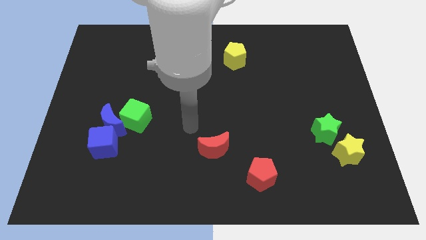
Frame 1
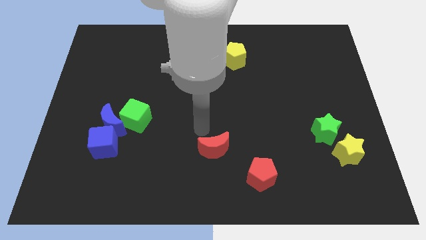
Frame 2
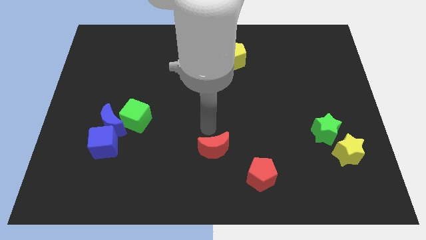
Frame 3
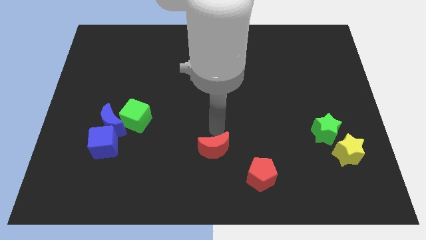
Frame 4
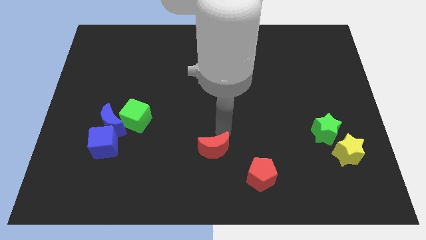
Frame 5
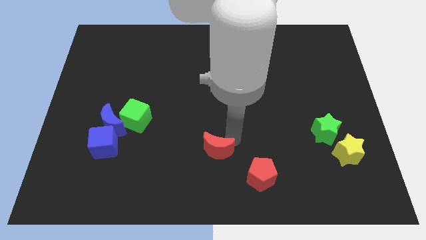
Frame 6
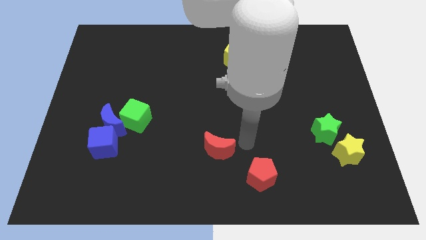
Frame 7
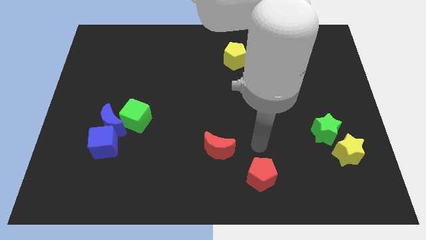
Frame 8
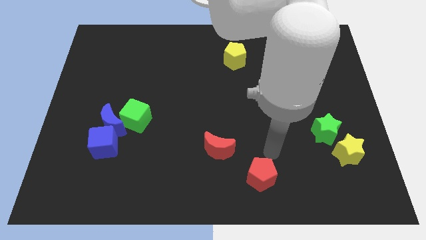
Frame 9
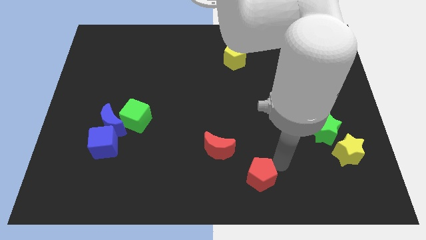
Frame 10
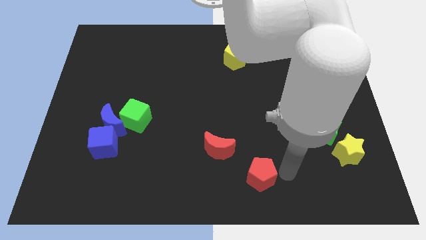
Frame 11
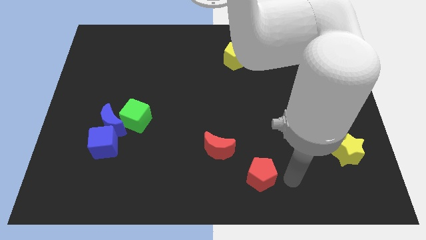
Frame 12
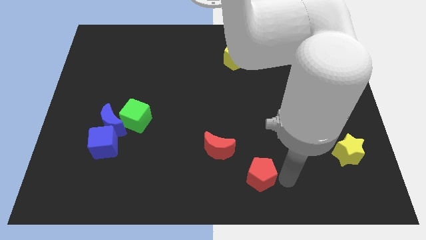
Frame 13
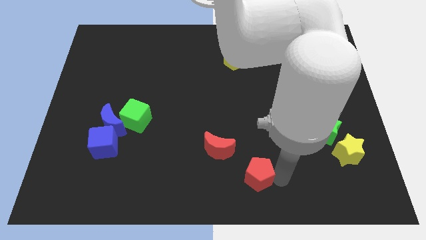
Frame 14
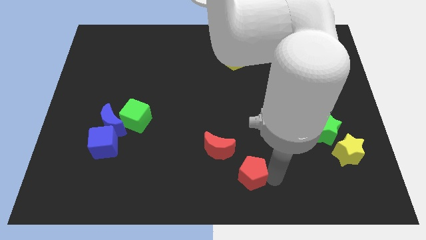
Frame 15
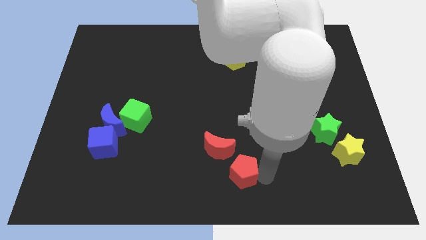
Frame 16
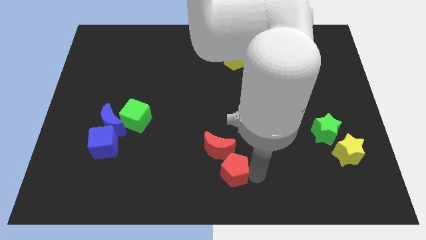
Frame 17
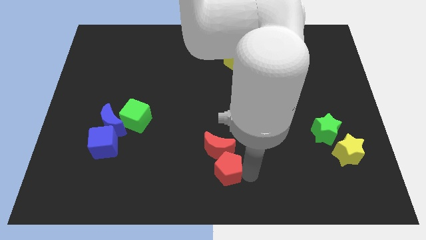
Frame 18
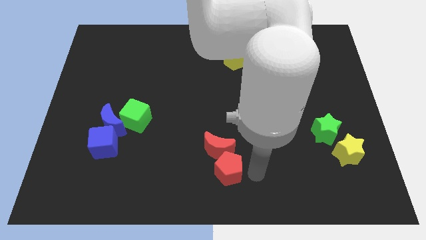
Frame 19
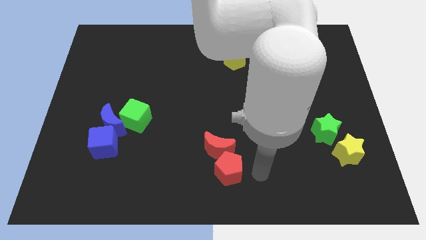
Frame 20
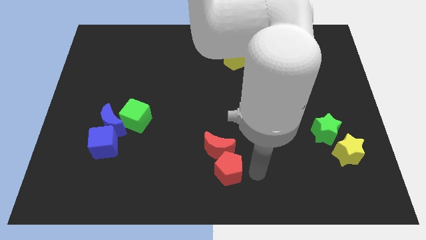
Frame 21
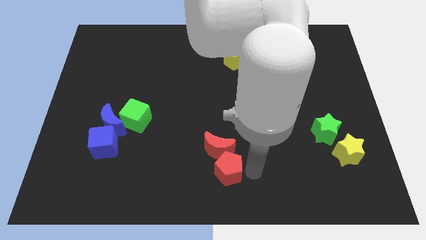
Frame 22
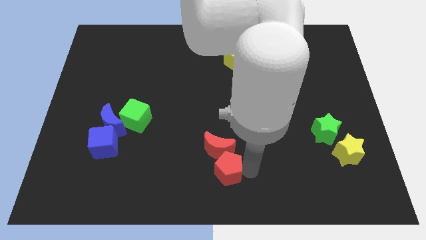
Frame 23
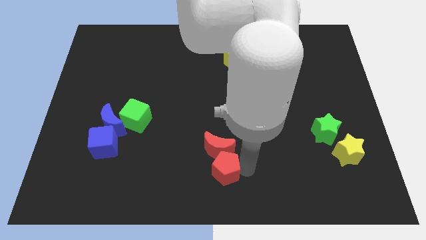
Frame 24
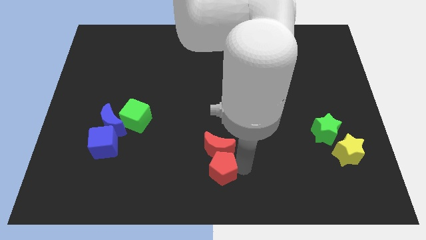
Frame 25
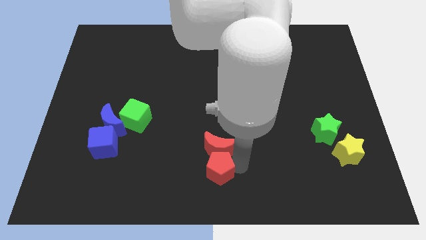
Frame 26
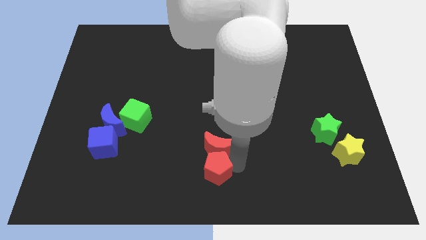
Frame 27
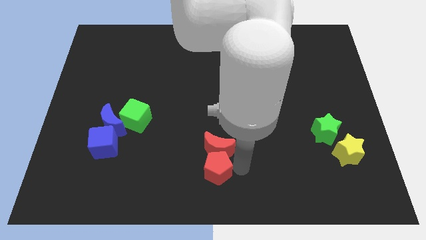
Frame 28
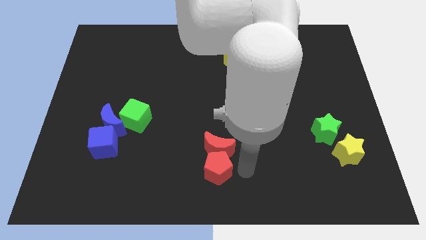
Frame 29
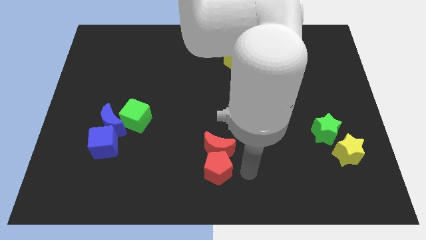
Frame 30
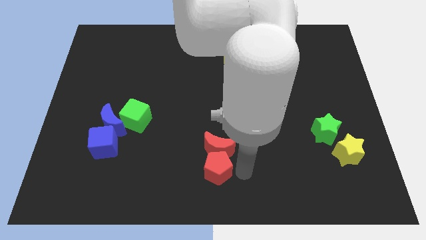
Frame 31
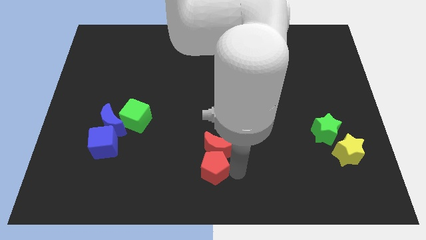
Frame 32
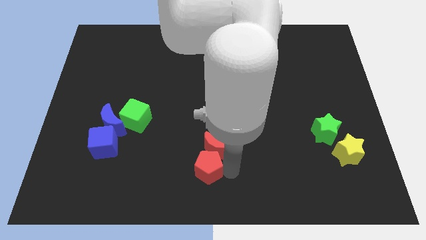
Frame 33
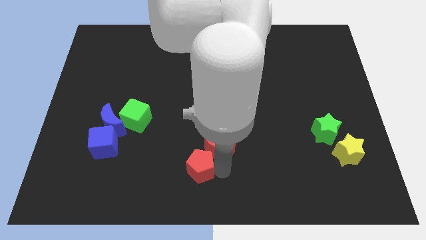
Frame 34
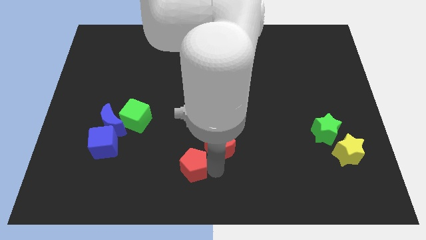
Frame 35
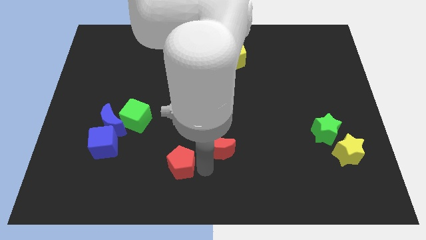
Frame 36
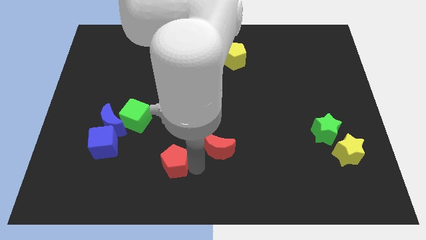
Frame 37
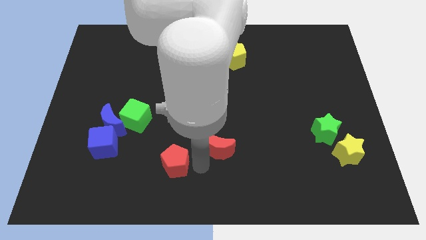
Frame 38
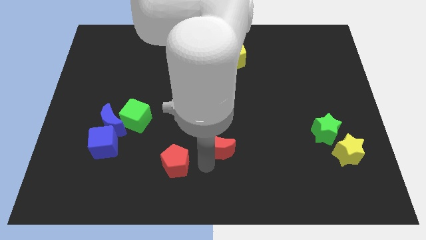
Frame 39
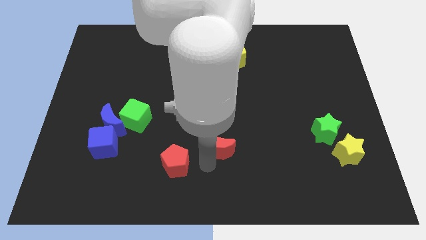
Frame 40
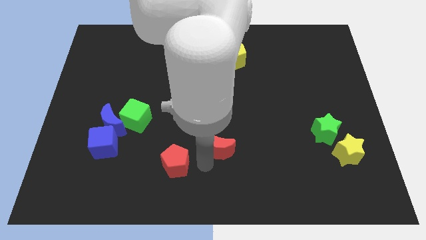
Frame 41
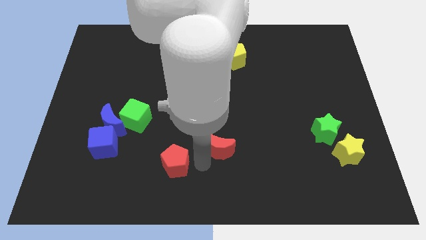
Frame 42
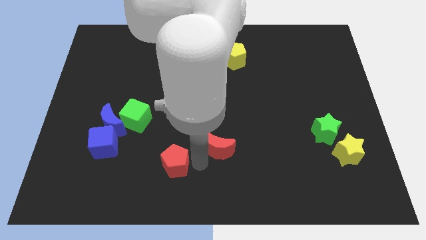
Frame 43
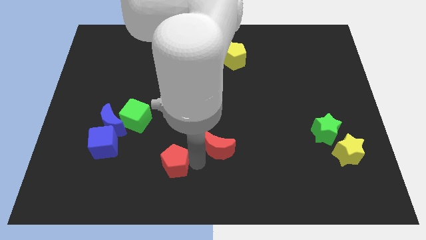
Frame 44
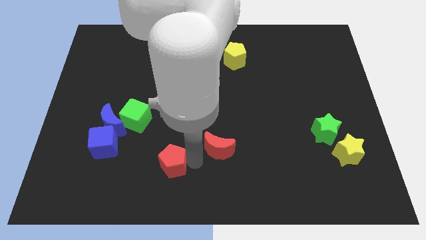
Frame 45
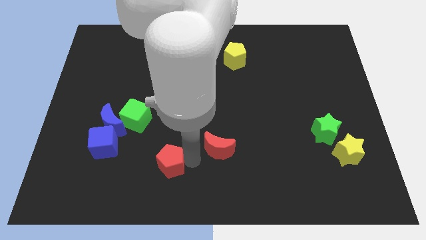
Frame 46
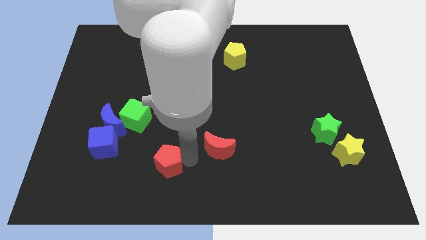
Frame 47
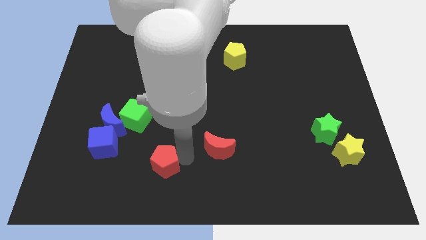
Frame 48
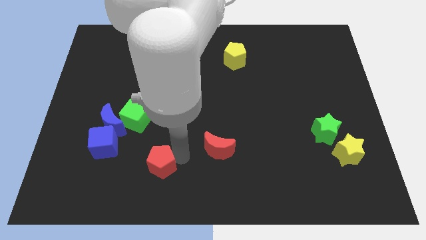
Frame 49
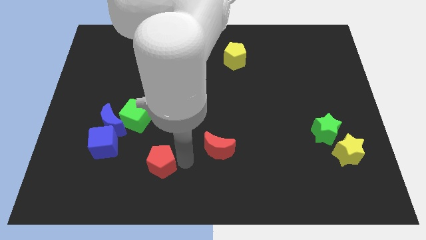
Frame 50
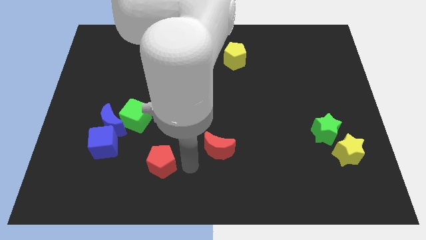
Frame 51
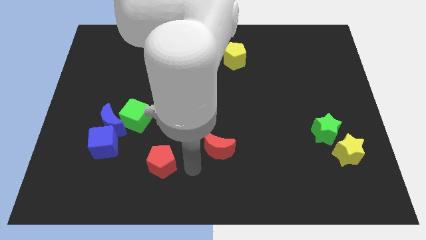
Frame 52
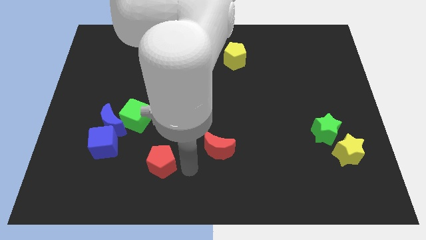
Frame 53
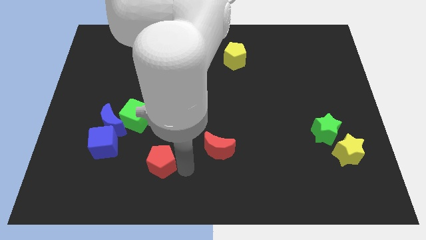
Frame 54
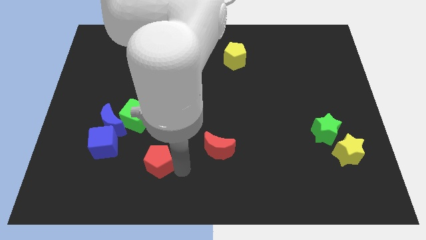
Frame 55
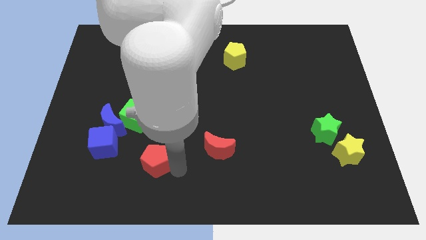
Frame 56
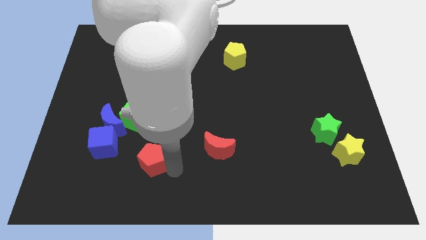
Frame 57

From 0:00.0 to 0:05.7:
move the red pentagon below the green cube

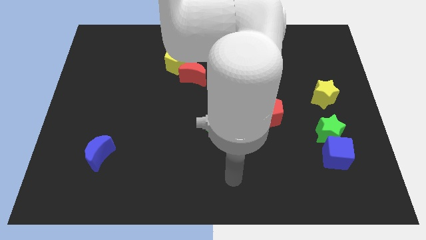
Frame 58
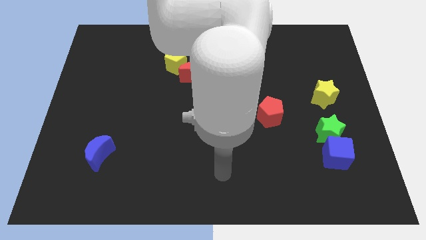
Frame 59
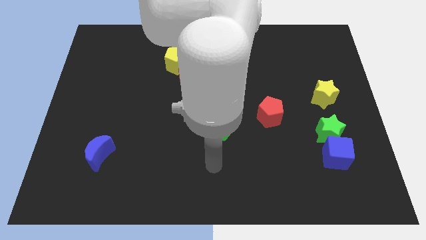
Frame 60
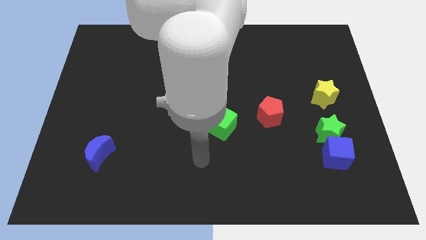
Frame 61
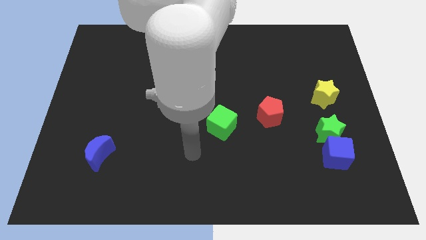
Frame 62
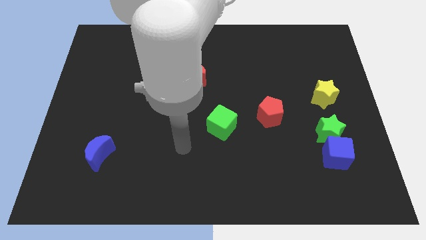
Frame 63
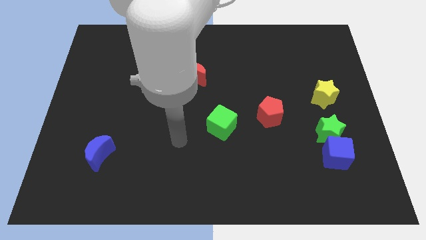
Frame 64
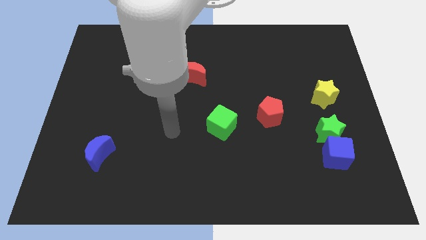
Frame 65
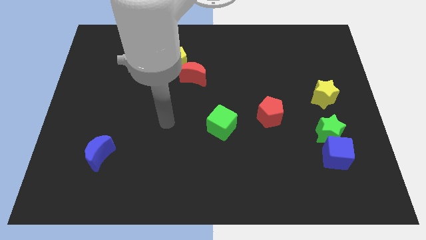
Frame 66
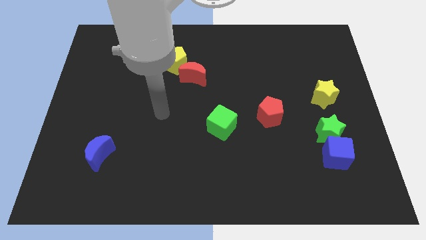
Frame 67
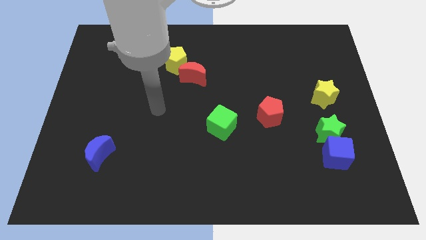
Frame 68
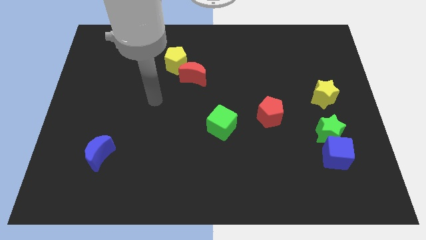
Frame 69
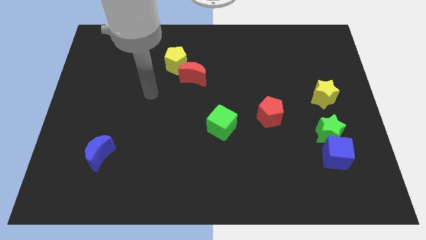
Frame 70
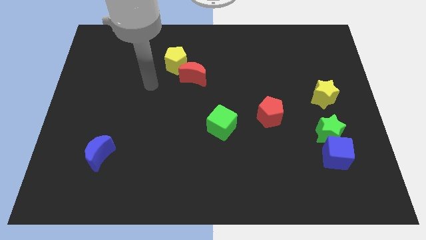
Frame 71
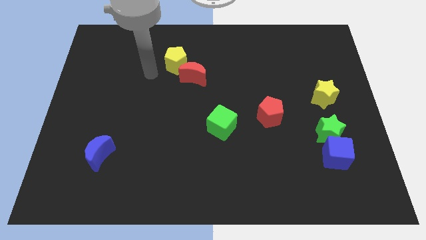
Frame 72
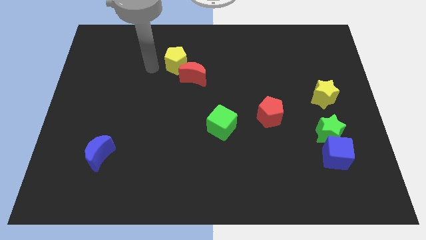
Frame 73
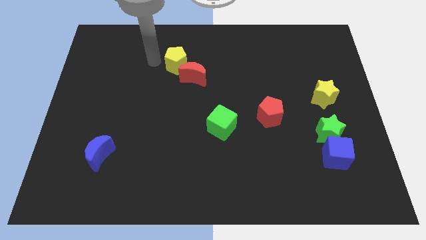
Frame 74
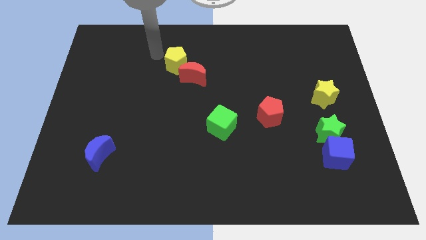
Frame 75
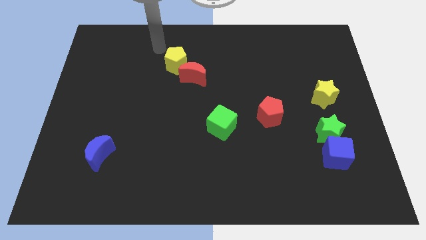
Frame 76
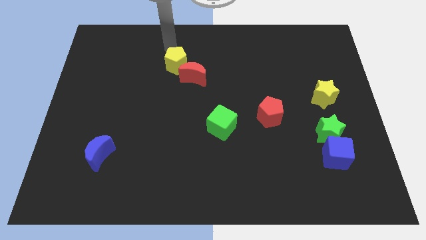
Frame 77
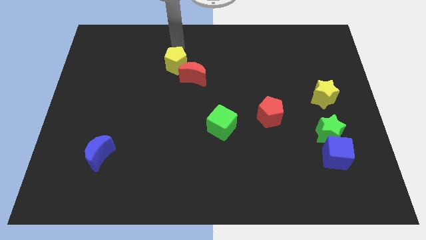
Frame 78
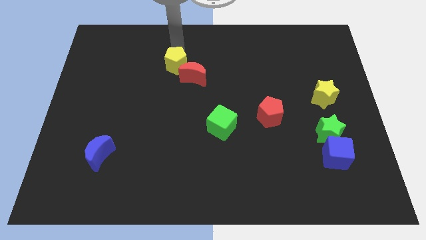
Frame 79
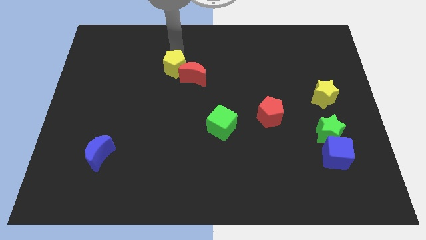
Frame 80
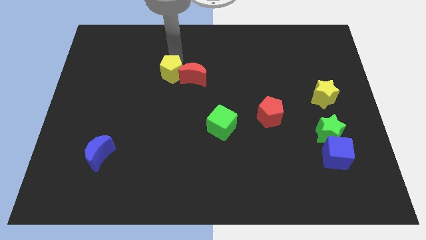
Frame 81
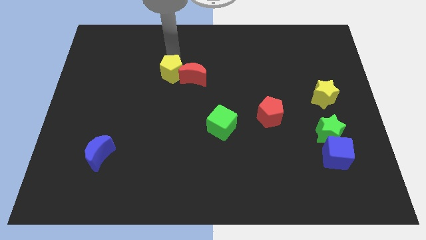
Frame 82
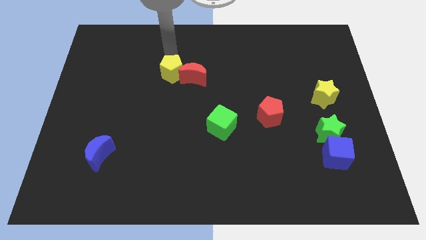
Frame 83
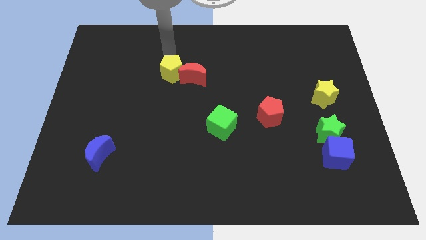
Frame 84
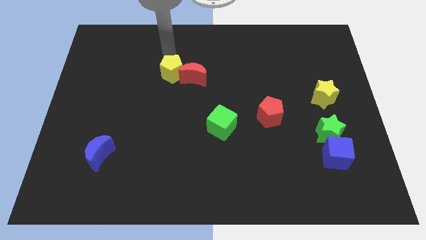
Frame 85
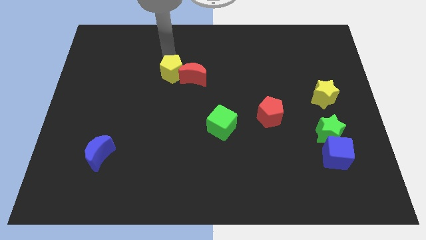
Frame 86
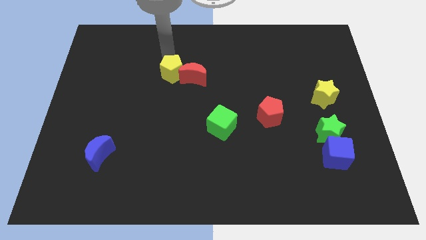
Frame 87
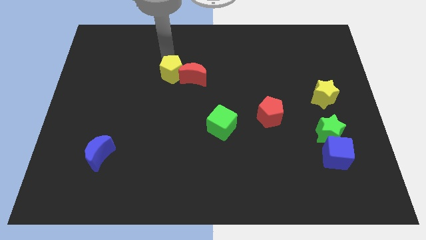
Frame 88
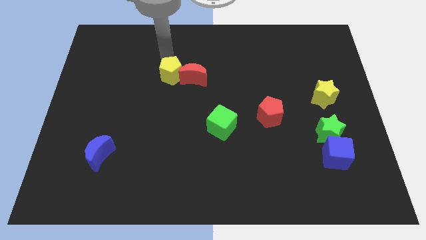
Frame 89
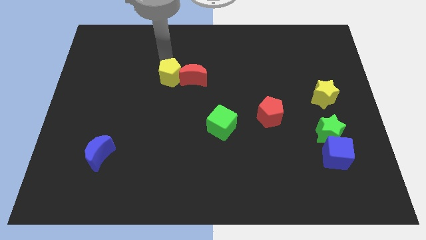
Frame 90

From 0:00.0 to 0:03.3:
push the yellow pentagon diagonally down and to the left of the red moon
